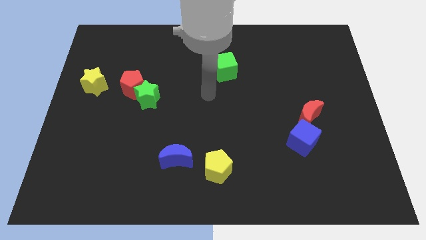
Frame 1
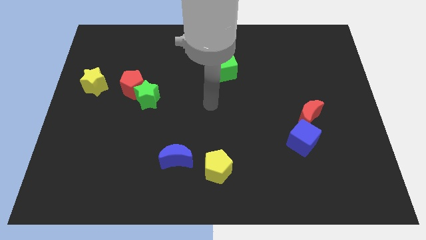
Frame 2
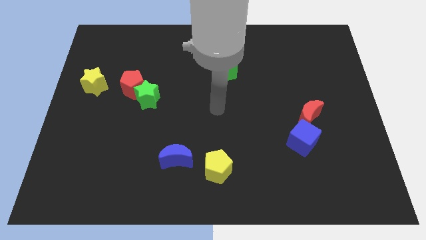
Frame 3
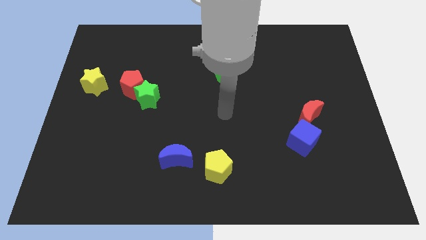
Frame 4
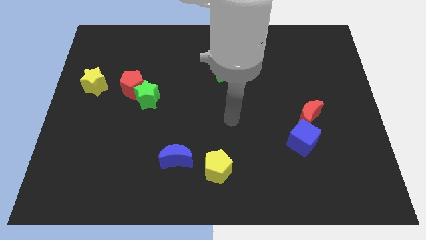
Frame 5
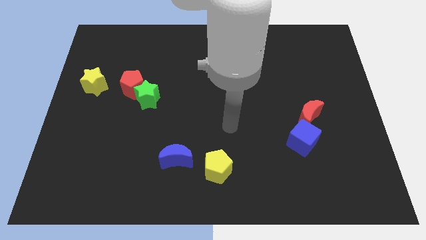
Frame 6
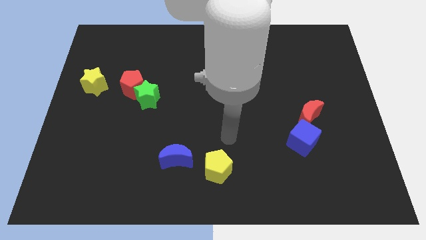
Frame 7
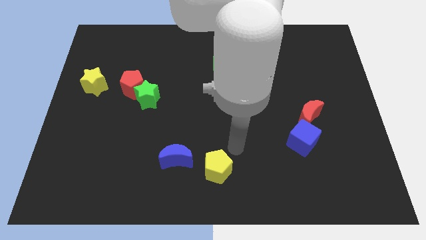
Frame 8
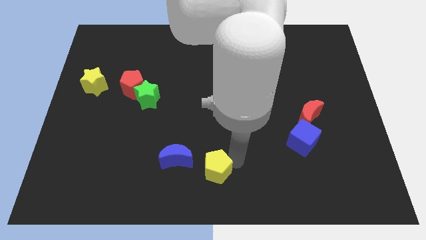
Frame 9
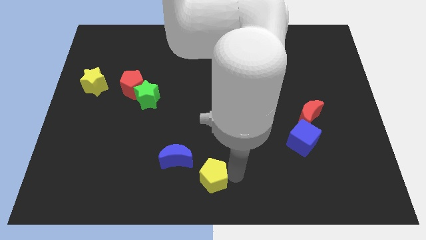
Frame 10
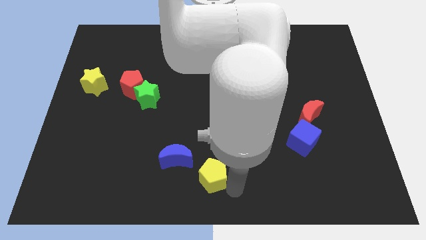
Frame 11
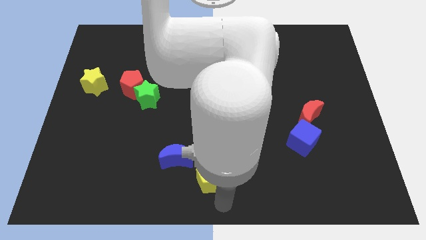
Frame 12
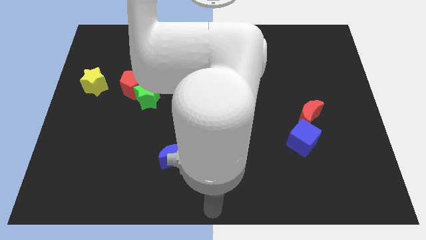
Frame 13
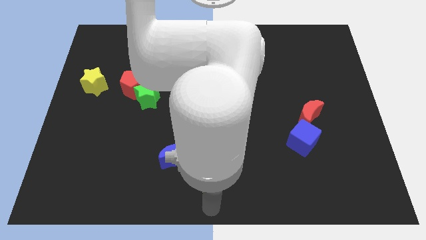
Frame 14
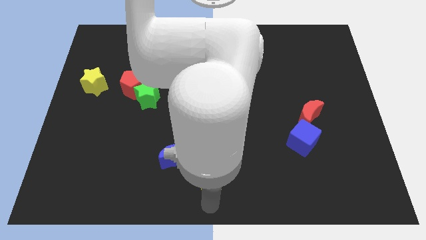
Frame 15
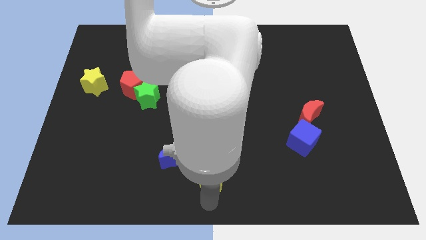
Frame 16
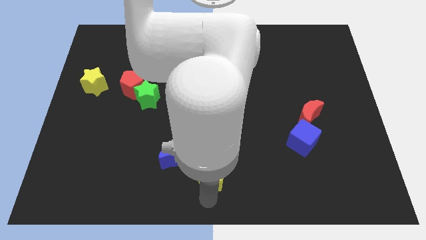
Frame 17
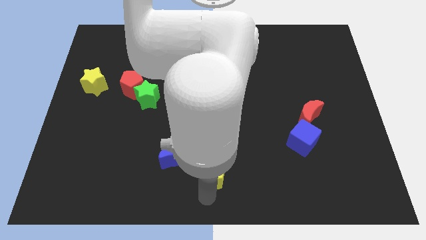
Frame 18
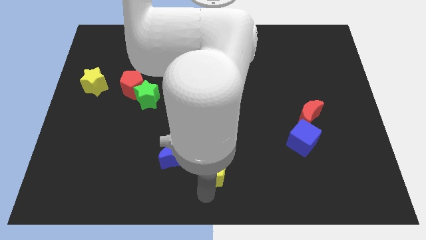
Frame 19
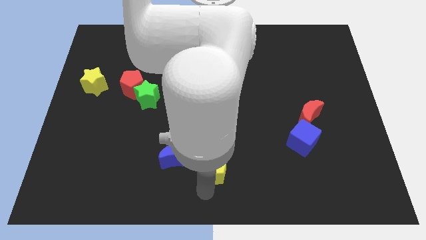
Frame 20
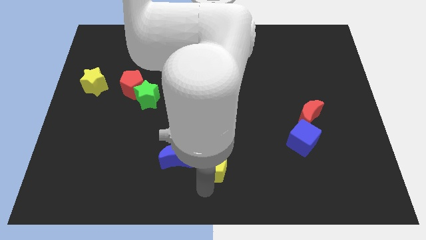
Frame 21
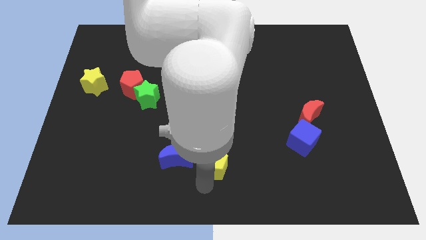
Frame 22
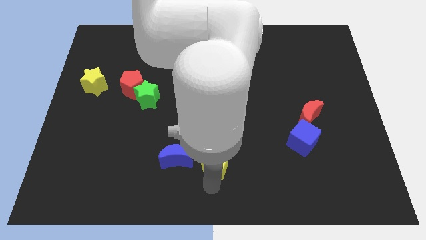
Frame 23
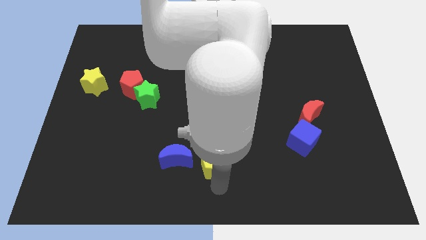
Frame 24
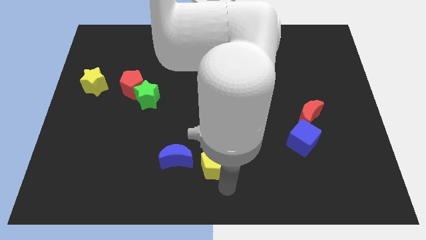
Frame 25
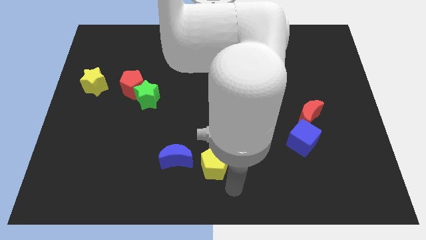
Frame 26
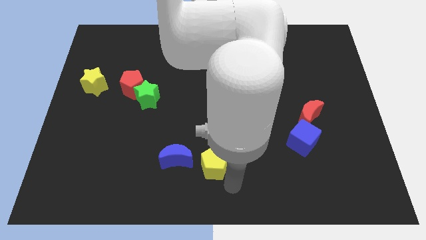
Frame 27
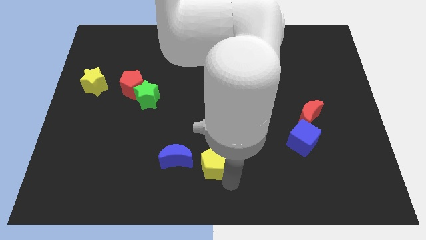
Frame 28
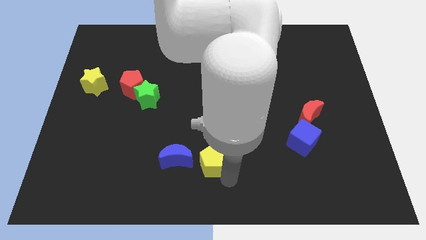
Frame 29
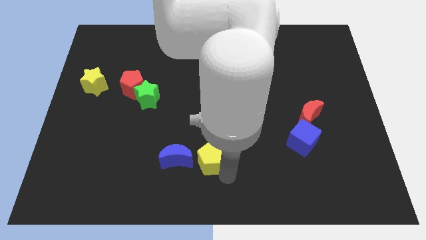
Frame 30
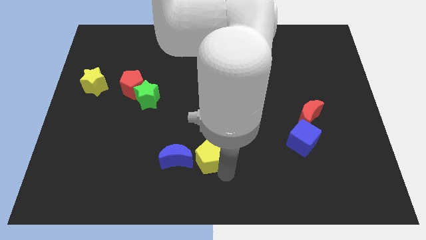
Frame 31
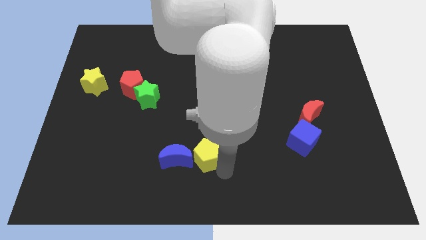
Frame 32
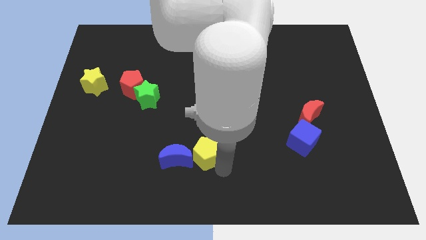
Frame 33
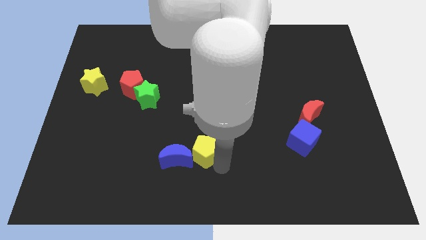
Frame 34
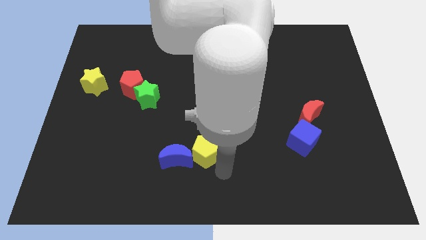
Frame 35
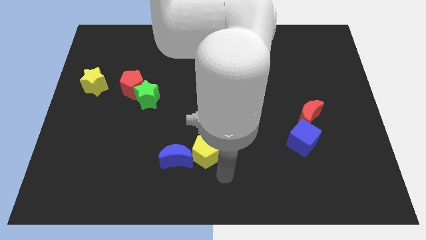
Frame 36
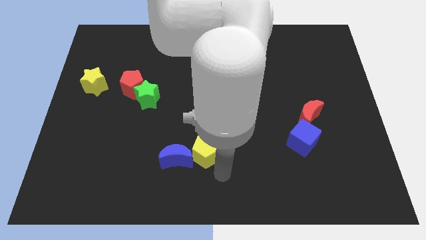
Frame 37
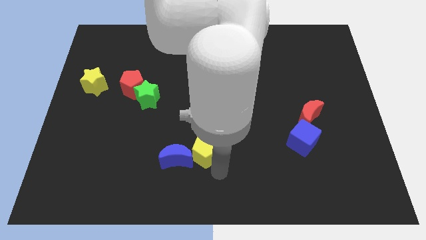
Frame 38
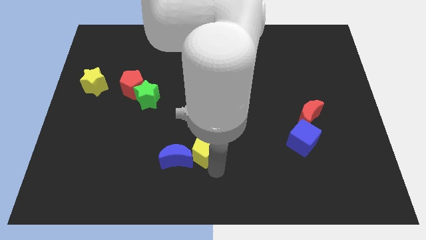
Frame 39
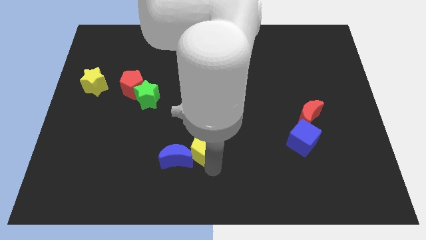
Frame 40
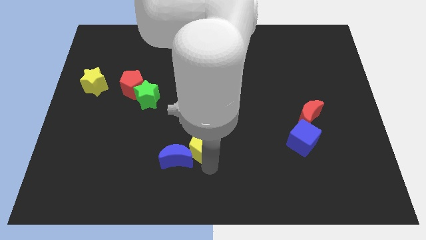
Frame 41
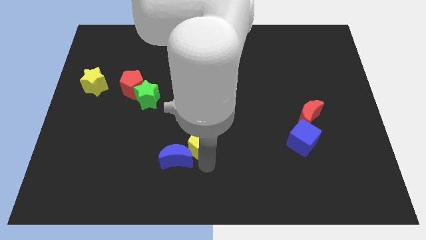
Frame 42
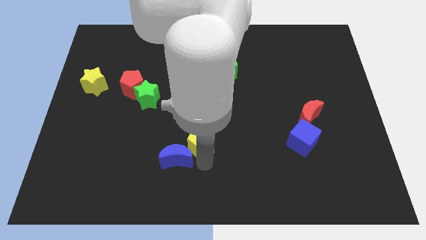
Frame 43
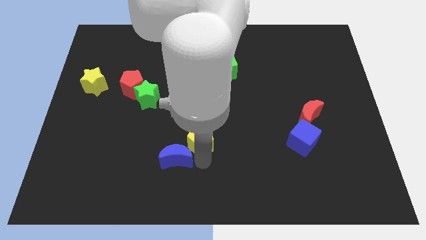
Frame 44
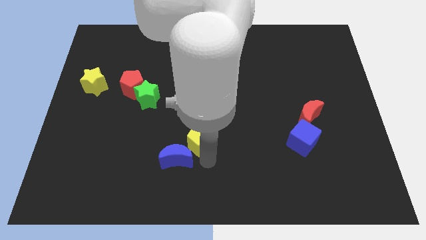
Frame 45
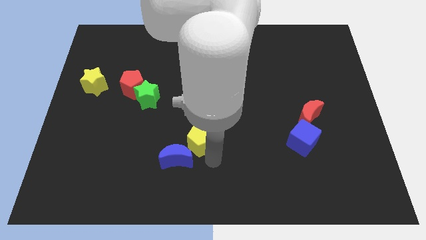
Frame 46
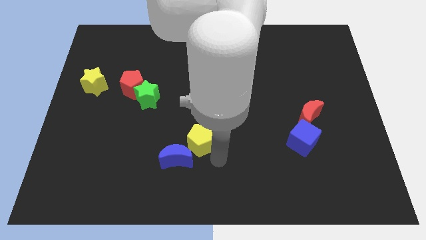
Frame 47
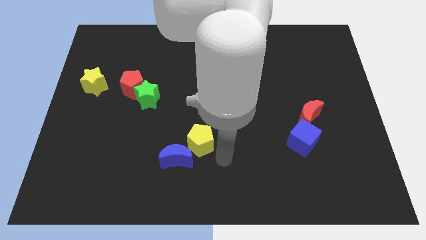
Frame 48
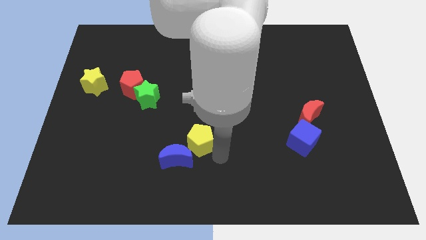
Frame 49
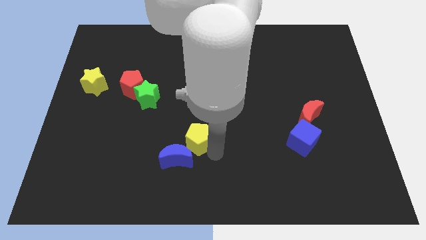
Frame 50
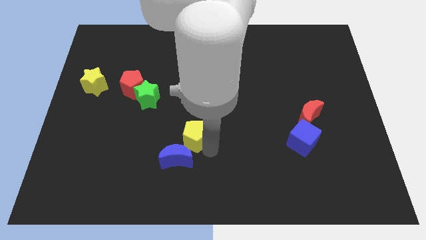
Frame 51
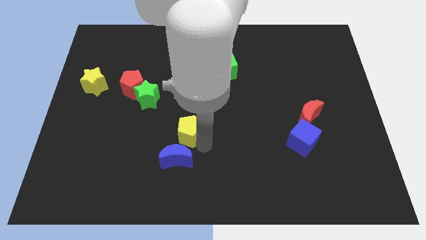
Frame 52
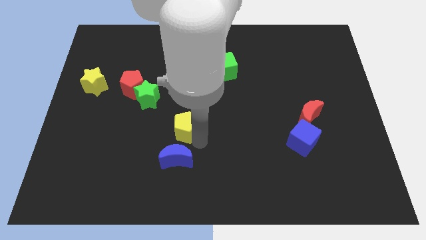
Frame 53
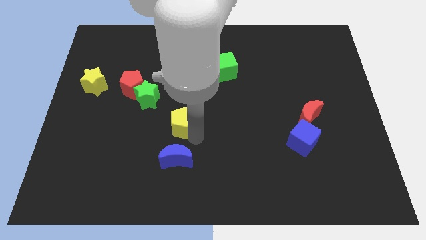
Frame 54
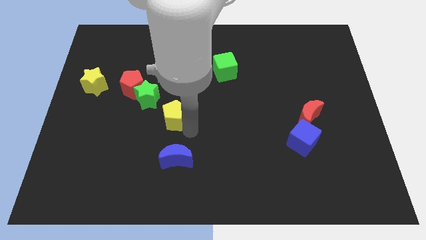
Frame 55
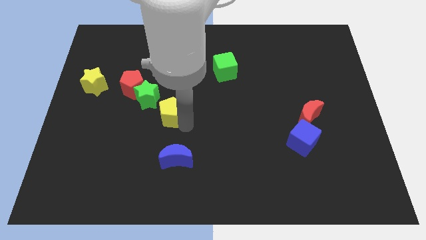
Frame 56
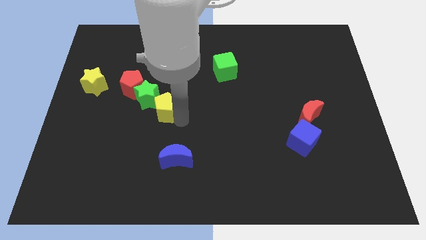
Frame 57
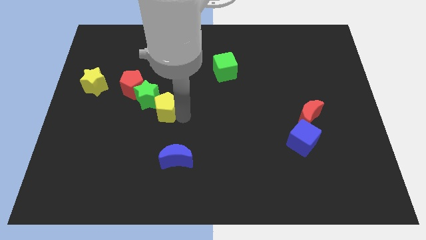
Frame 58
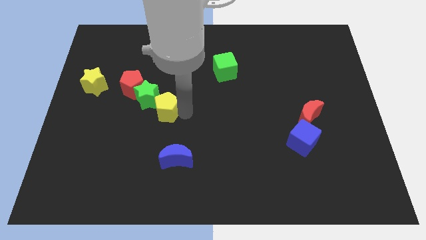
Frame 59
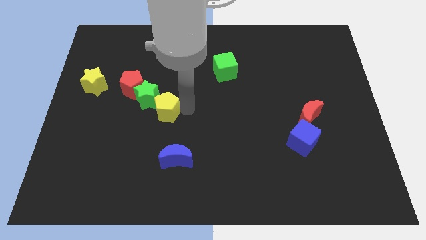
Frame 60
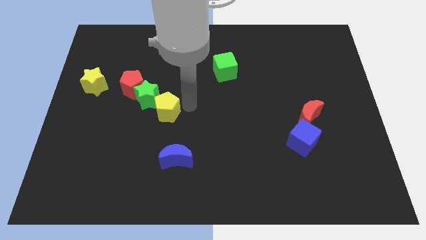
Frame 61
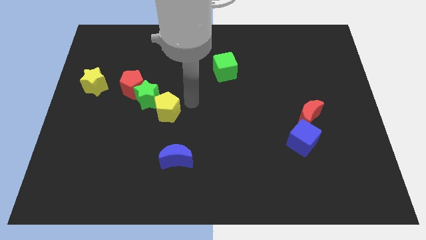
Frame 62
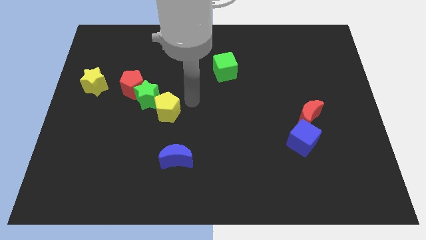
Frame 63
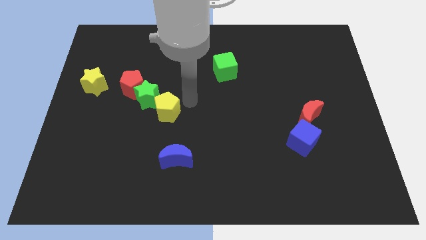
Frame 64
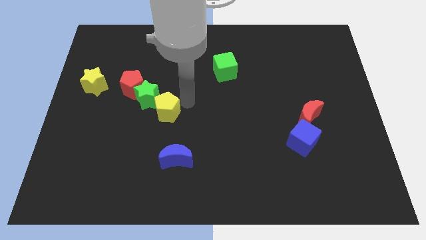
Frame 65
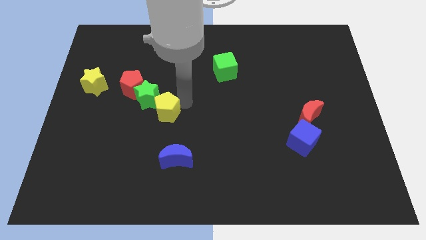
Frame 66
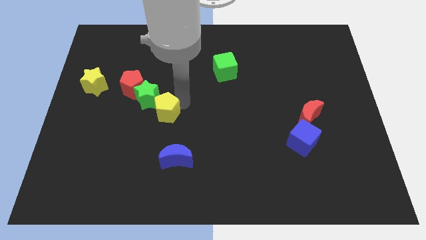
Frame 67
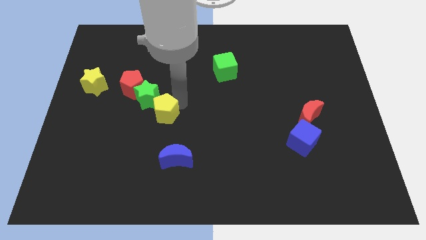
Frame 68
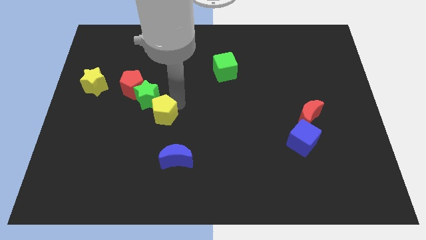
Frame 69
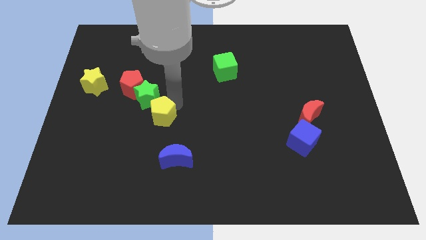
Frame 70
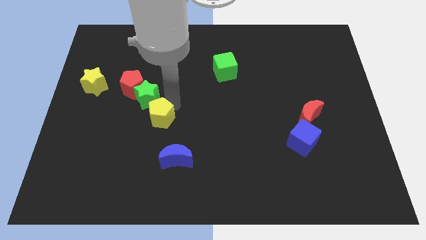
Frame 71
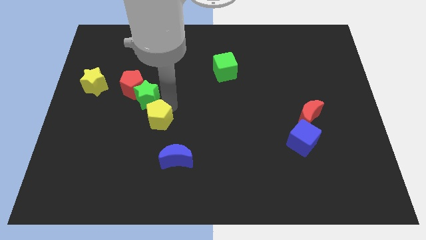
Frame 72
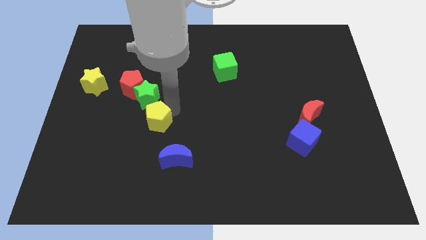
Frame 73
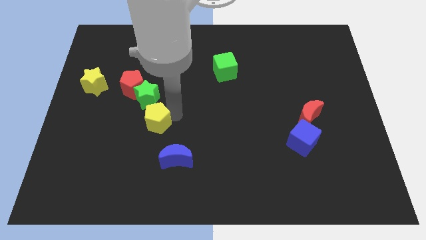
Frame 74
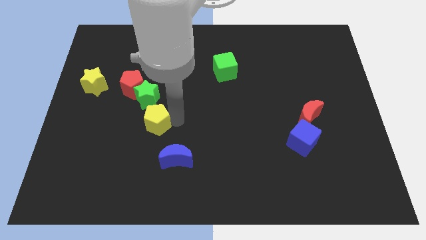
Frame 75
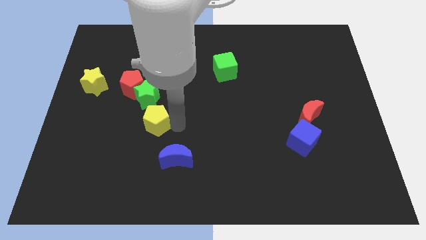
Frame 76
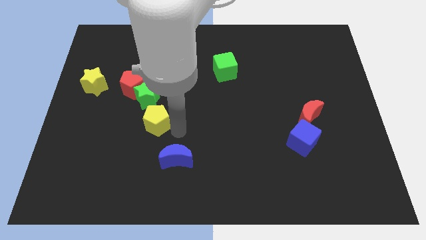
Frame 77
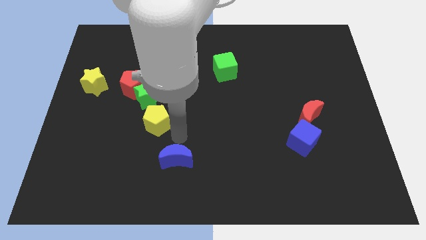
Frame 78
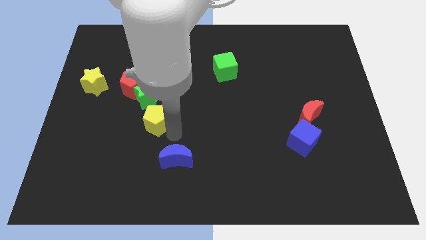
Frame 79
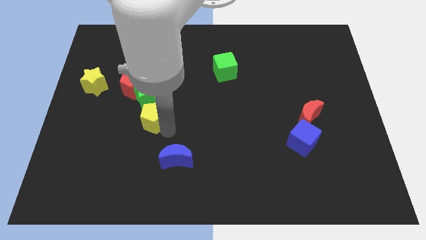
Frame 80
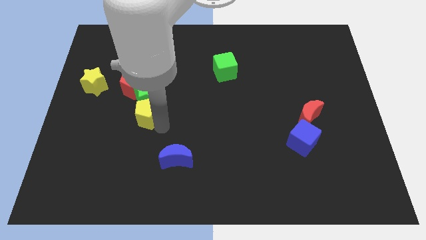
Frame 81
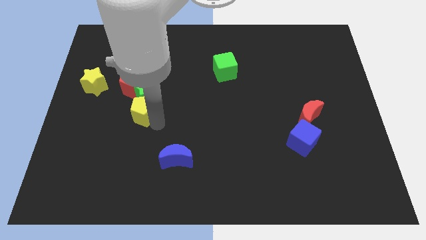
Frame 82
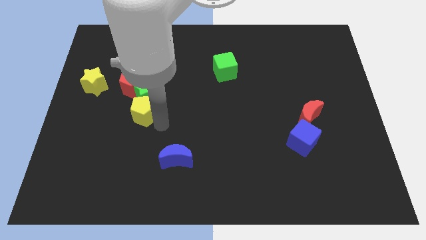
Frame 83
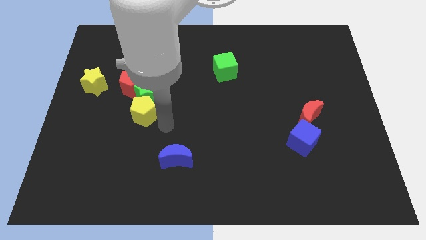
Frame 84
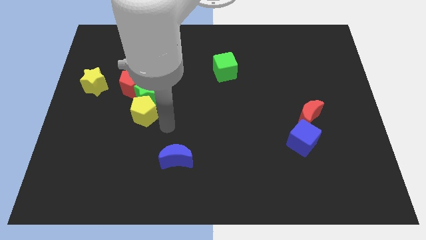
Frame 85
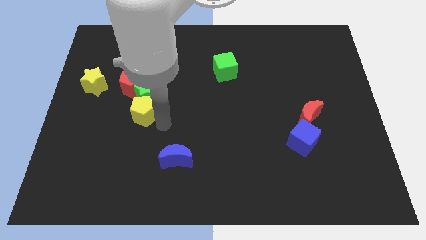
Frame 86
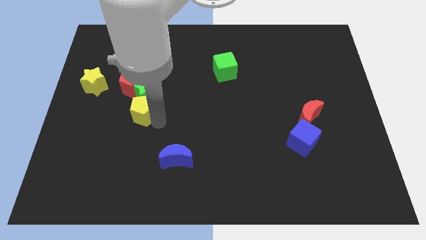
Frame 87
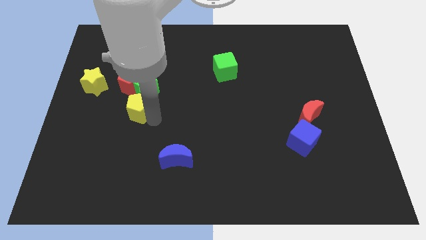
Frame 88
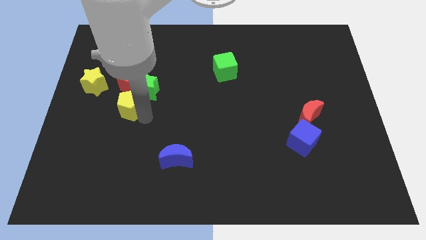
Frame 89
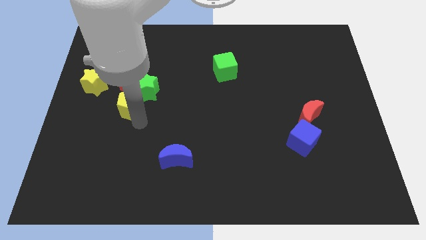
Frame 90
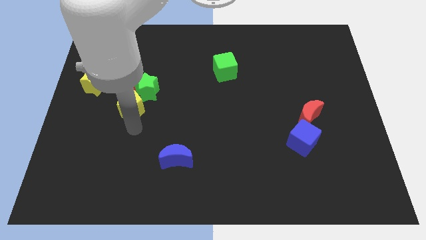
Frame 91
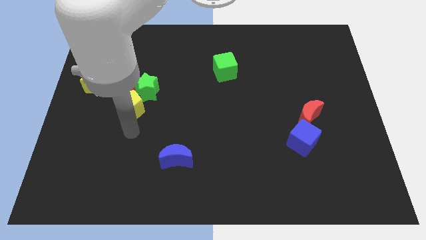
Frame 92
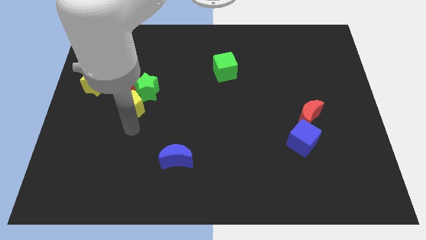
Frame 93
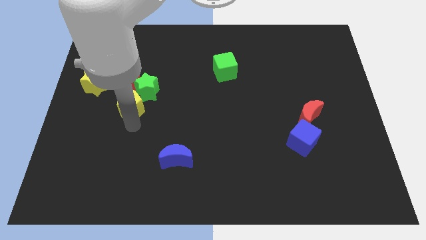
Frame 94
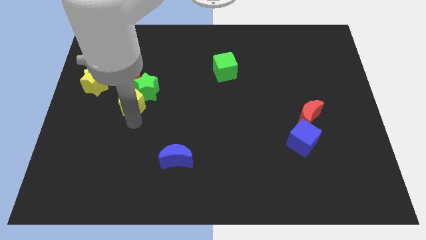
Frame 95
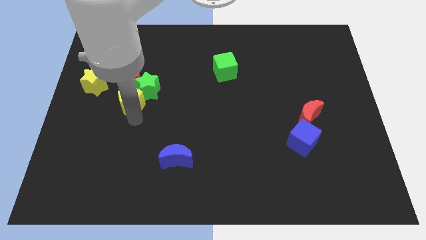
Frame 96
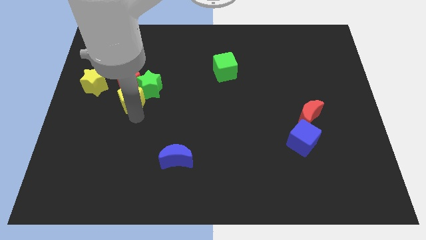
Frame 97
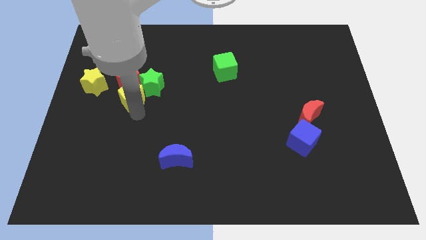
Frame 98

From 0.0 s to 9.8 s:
slide the yellow pentagon next to the red pentagon
